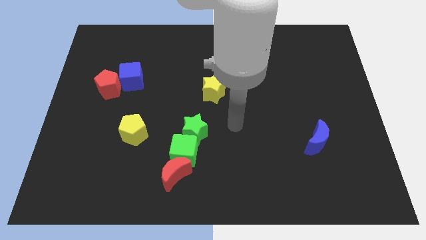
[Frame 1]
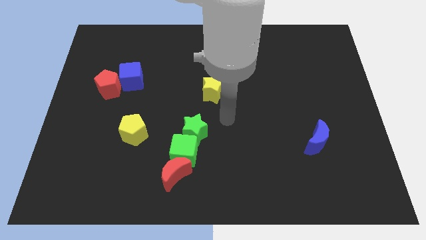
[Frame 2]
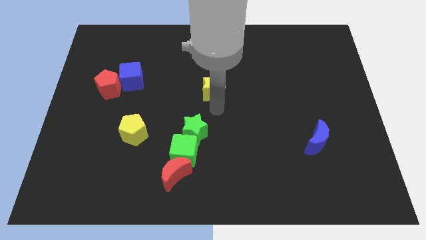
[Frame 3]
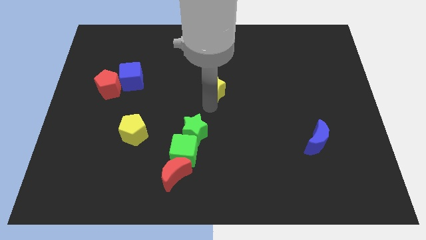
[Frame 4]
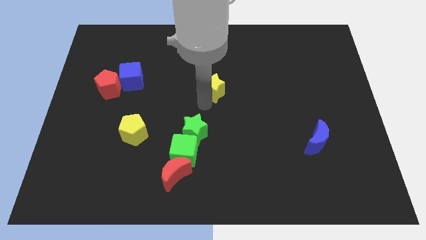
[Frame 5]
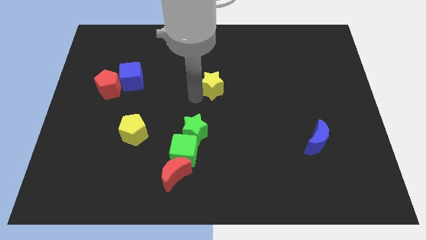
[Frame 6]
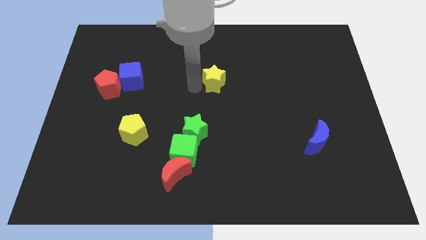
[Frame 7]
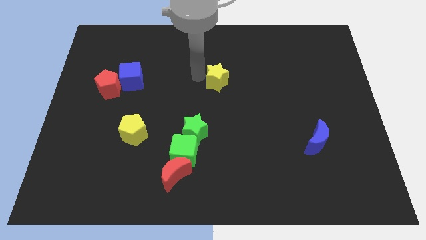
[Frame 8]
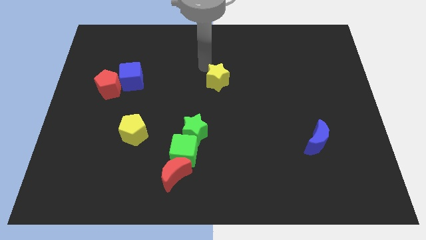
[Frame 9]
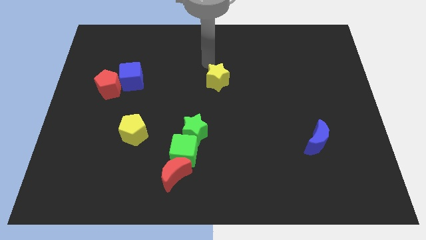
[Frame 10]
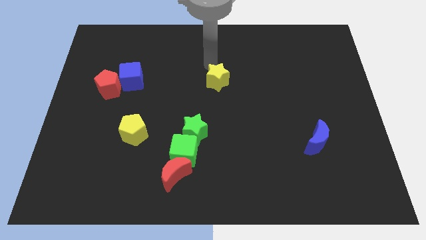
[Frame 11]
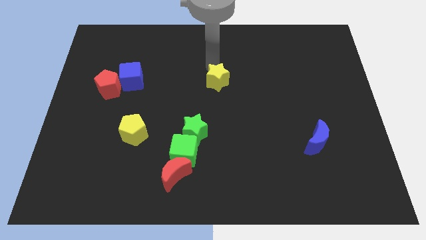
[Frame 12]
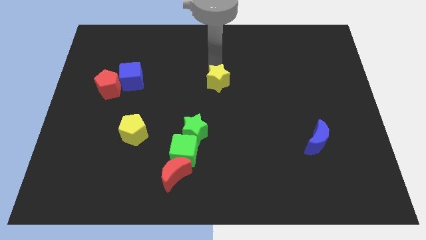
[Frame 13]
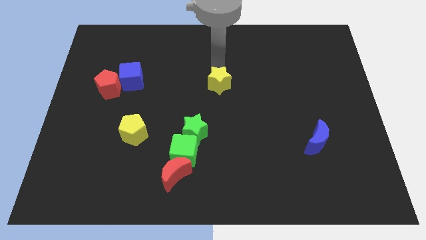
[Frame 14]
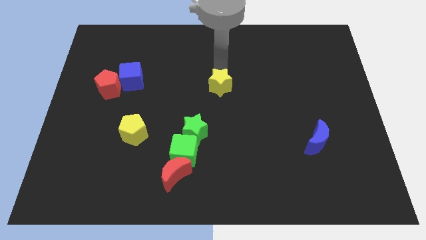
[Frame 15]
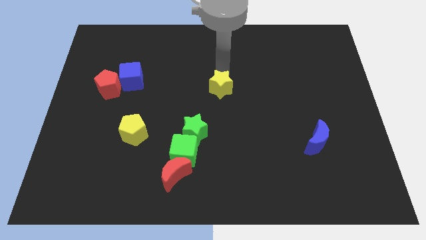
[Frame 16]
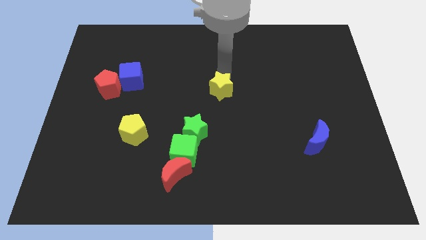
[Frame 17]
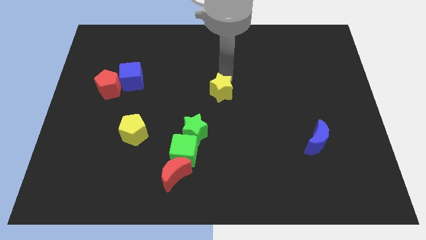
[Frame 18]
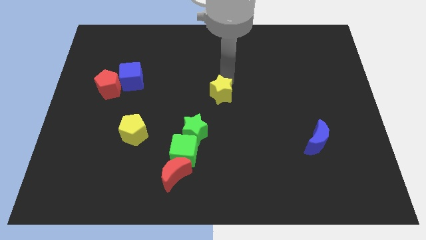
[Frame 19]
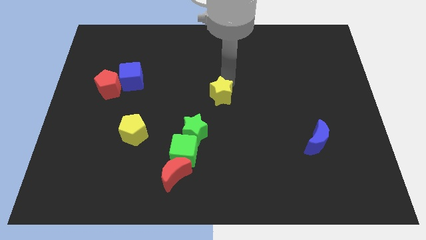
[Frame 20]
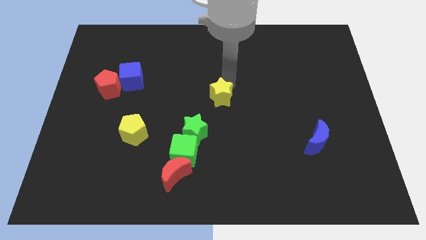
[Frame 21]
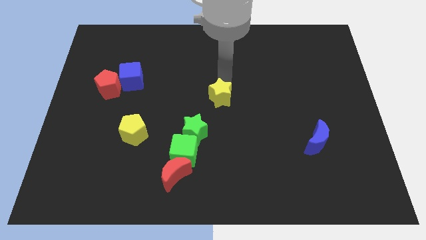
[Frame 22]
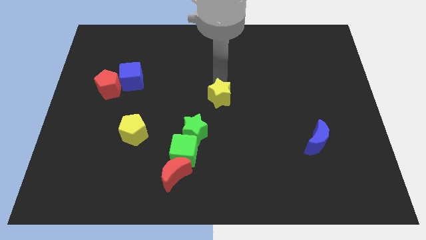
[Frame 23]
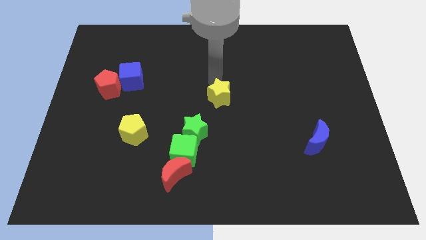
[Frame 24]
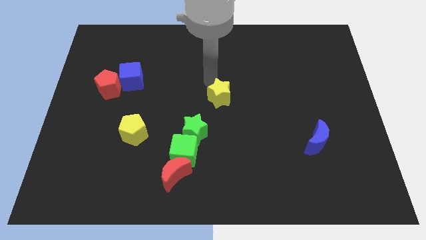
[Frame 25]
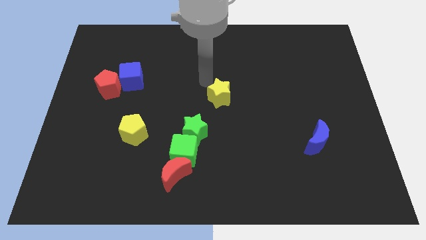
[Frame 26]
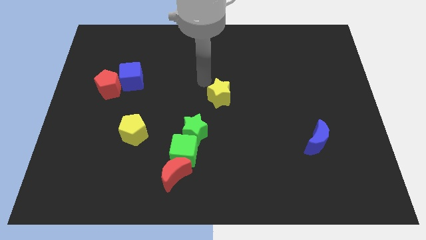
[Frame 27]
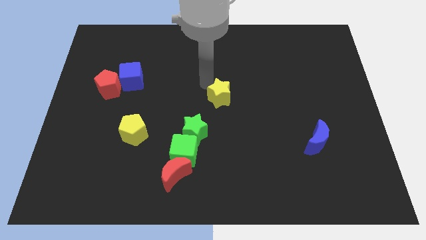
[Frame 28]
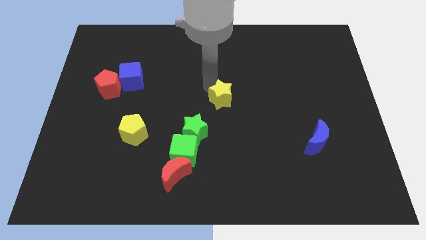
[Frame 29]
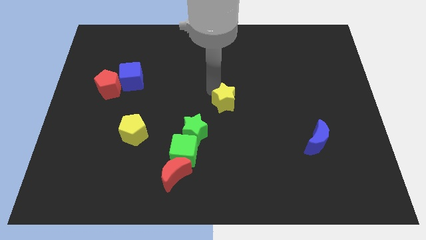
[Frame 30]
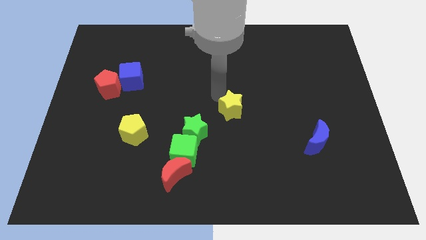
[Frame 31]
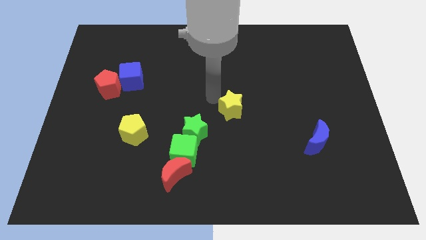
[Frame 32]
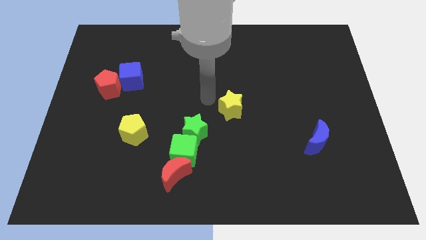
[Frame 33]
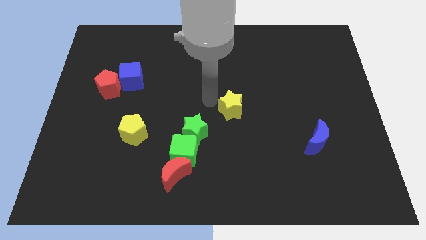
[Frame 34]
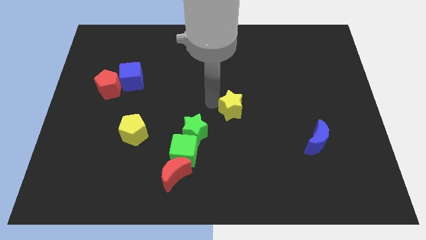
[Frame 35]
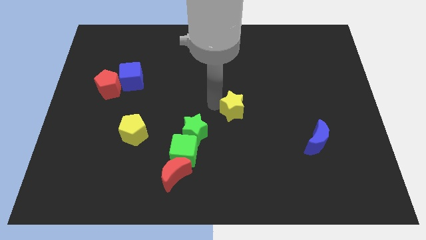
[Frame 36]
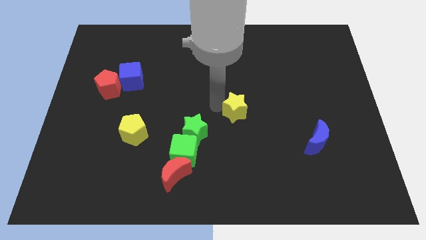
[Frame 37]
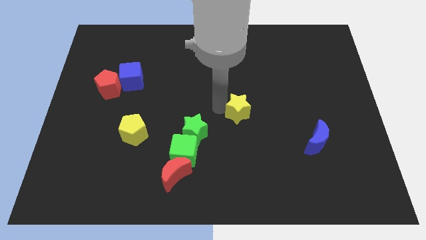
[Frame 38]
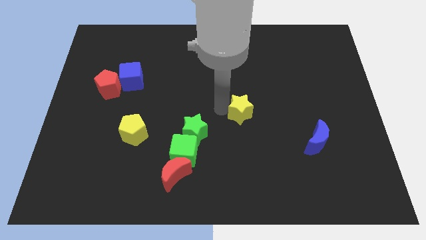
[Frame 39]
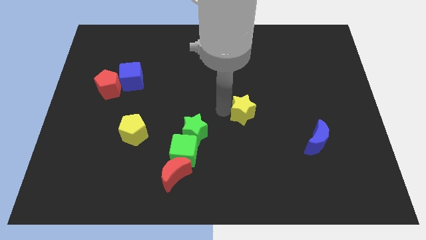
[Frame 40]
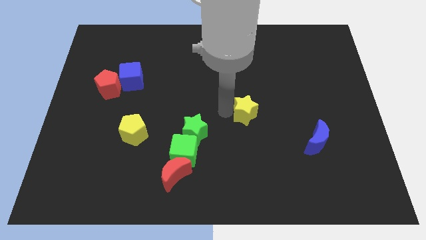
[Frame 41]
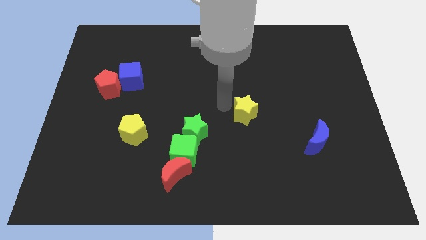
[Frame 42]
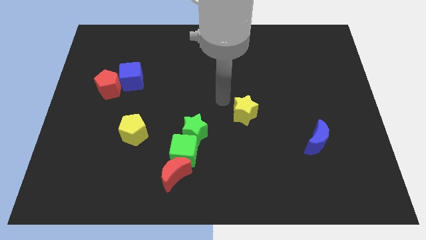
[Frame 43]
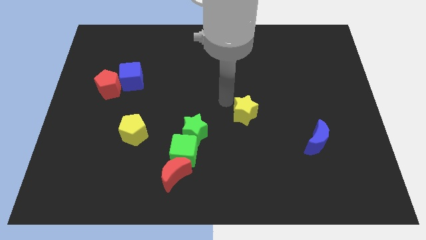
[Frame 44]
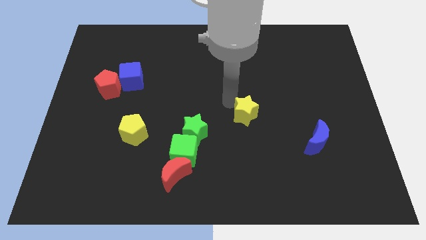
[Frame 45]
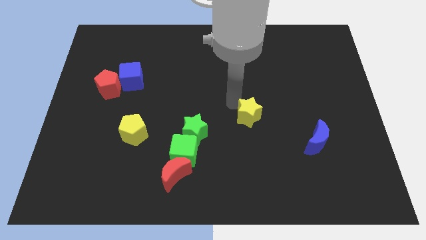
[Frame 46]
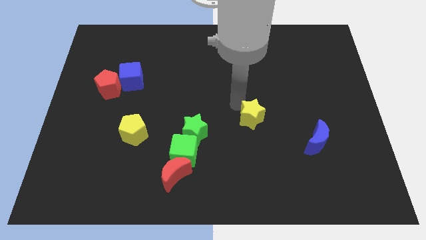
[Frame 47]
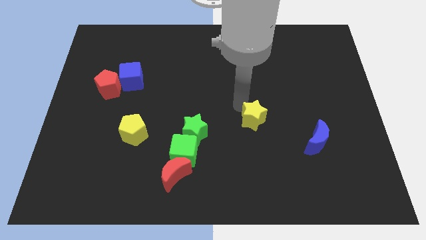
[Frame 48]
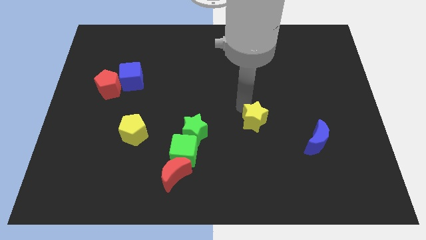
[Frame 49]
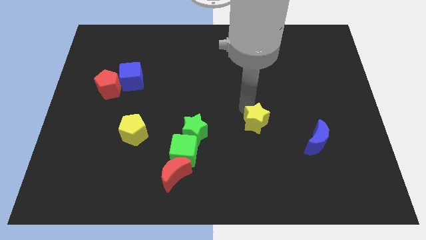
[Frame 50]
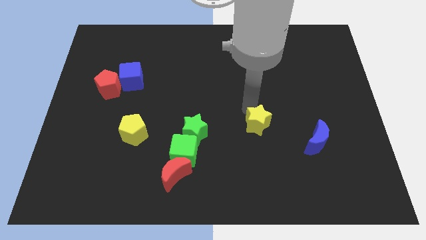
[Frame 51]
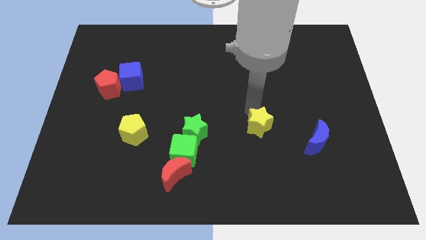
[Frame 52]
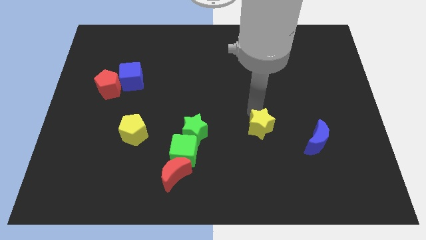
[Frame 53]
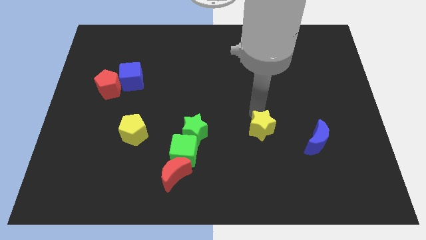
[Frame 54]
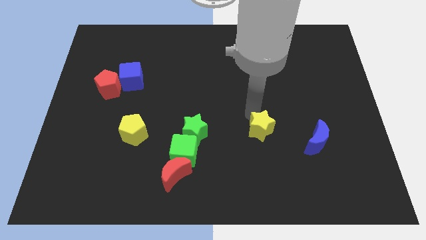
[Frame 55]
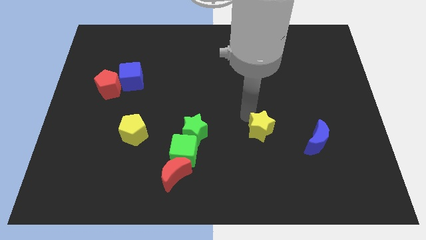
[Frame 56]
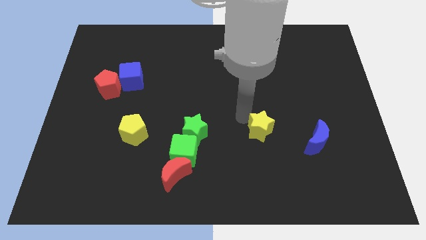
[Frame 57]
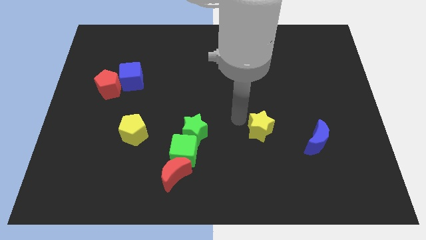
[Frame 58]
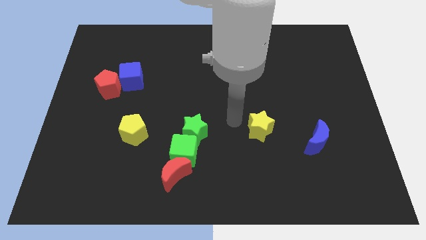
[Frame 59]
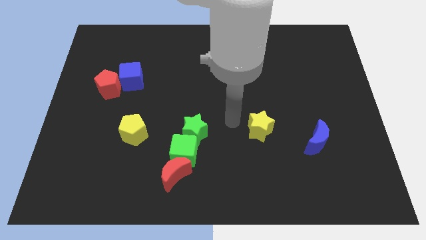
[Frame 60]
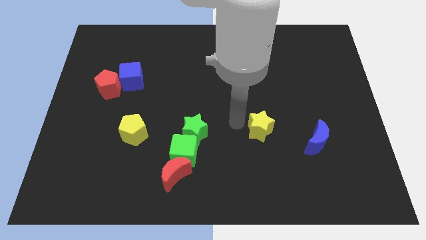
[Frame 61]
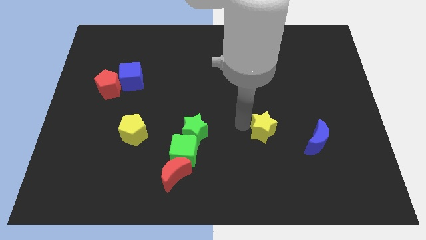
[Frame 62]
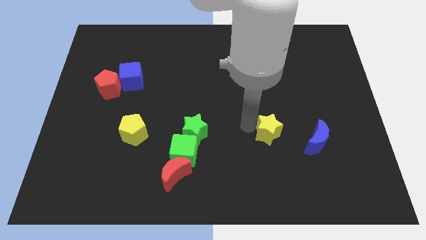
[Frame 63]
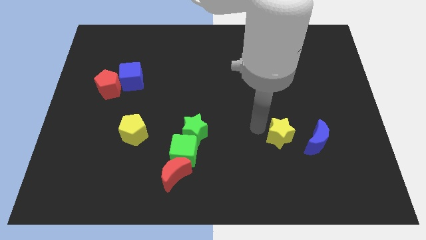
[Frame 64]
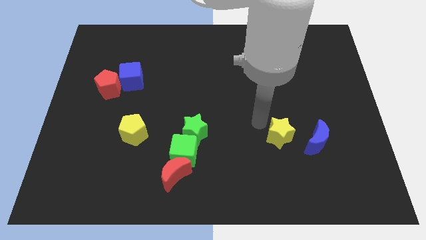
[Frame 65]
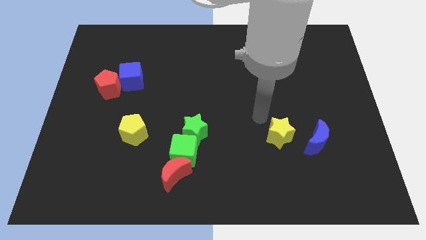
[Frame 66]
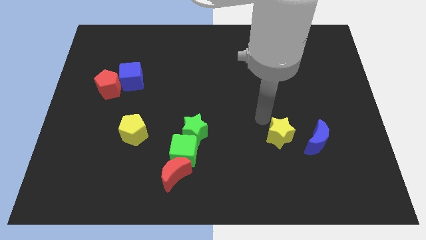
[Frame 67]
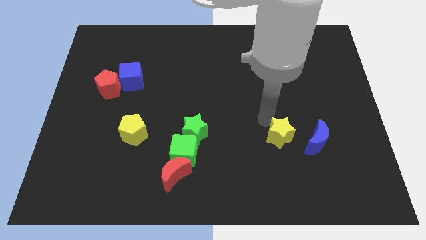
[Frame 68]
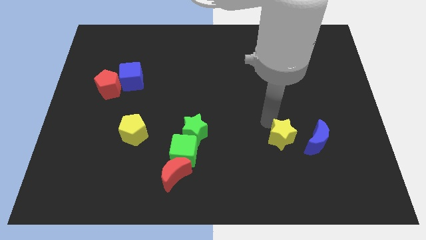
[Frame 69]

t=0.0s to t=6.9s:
move the yellow star downwards and right

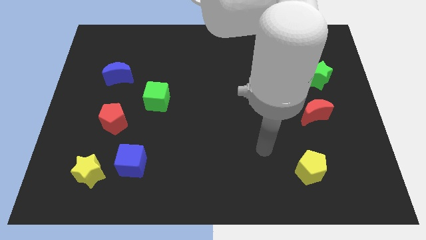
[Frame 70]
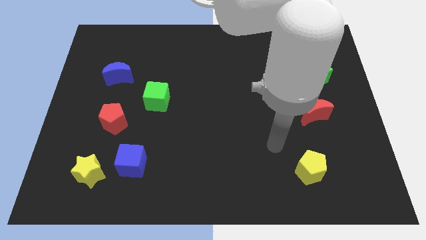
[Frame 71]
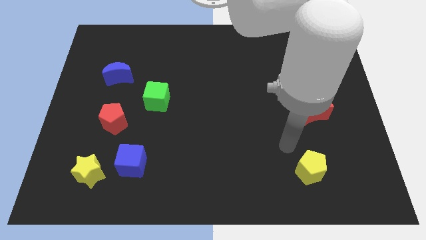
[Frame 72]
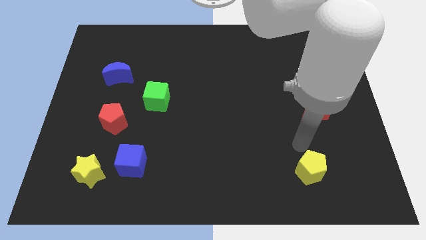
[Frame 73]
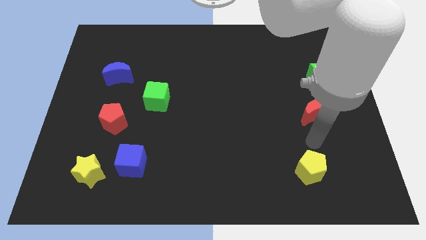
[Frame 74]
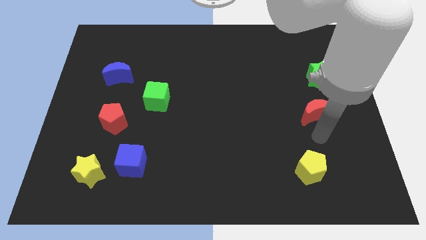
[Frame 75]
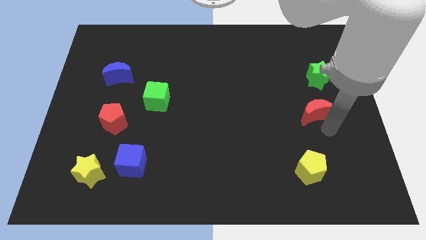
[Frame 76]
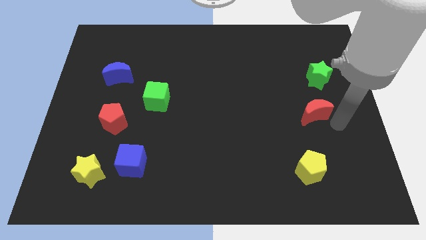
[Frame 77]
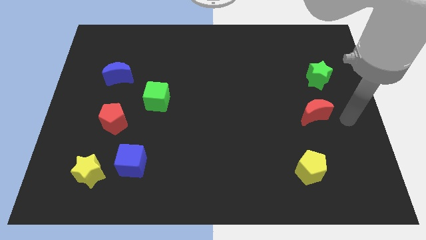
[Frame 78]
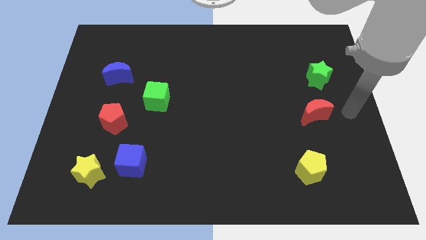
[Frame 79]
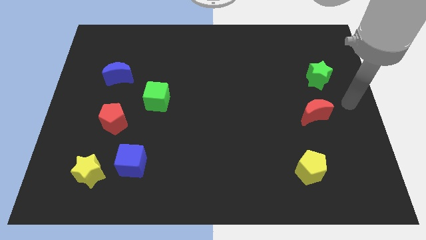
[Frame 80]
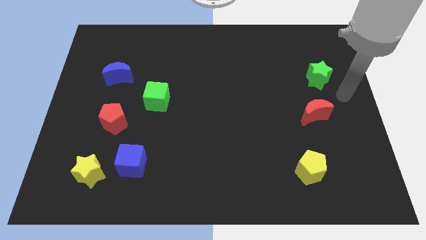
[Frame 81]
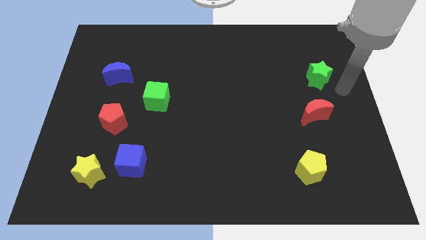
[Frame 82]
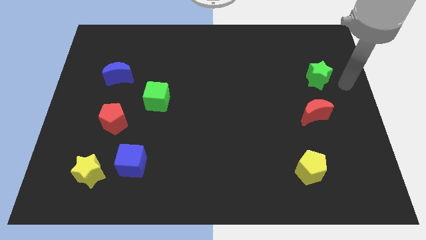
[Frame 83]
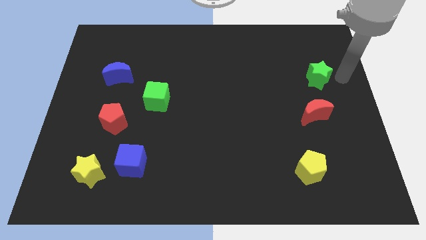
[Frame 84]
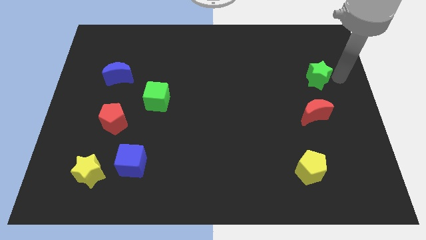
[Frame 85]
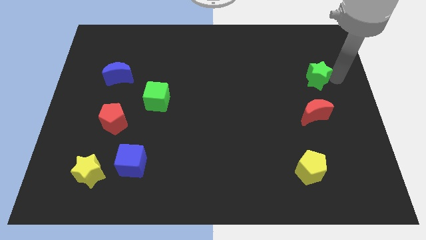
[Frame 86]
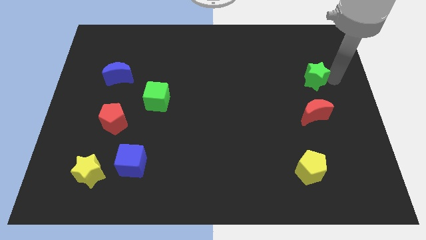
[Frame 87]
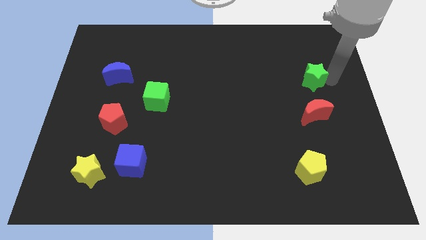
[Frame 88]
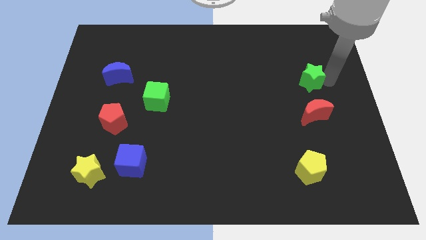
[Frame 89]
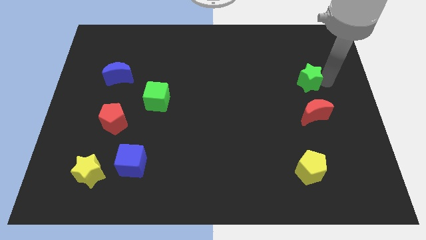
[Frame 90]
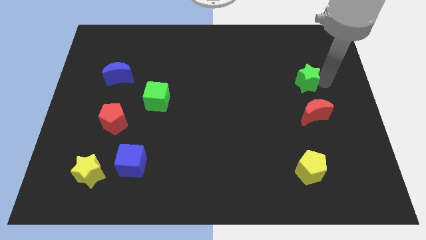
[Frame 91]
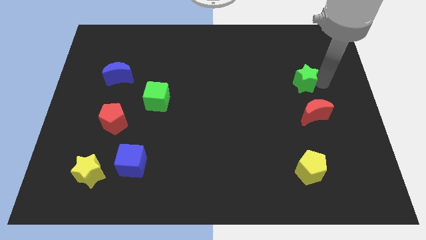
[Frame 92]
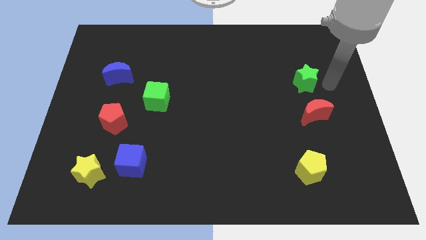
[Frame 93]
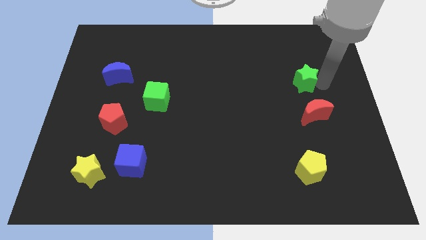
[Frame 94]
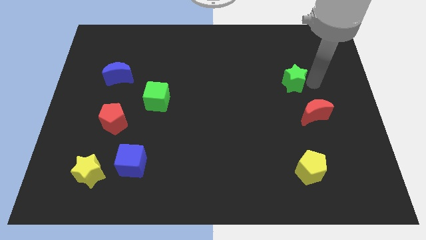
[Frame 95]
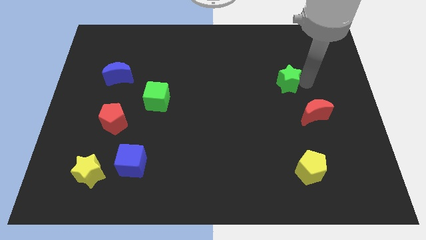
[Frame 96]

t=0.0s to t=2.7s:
move the green star to the left a little
